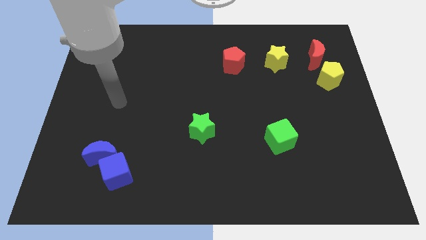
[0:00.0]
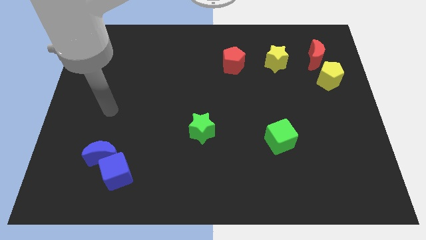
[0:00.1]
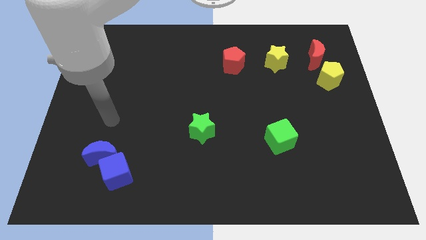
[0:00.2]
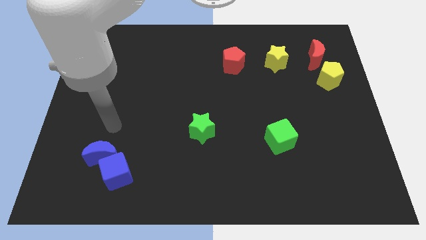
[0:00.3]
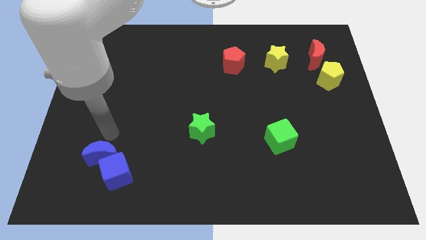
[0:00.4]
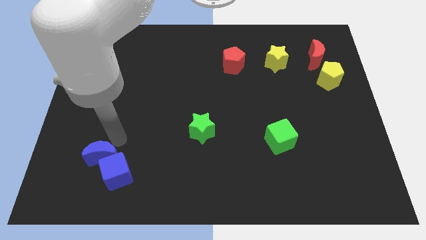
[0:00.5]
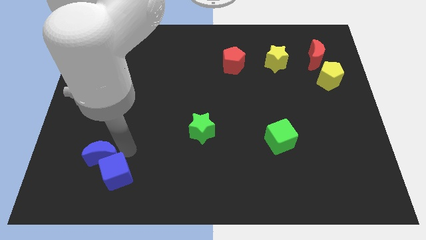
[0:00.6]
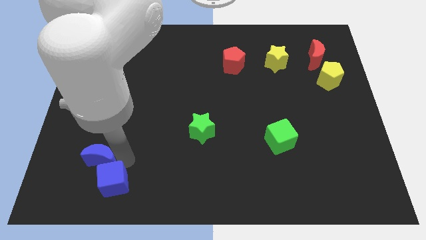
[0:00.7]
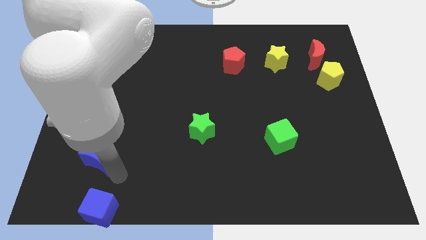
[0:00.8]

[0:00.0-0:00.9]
separate the blue moon from the blue cube

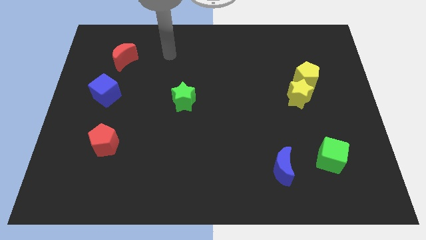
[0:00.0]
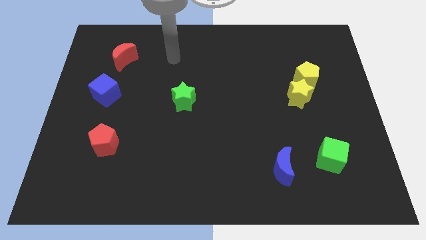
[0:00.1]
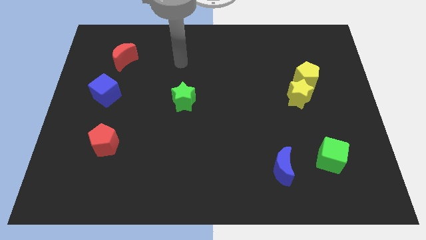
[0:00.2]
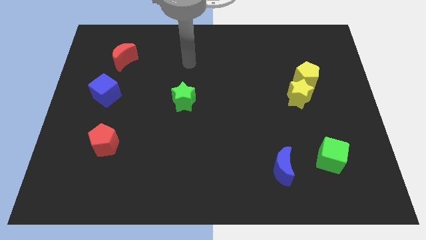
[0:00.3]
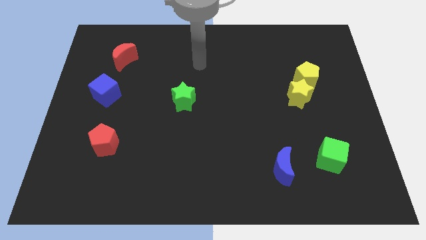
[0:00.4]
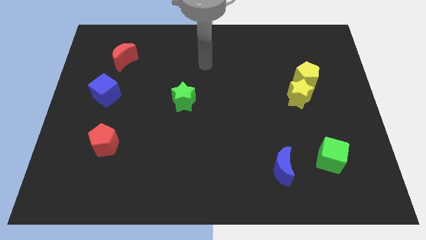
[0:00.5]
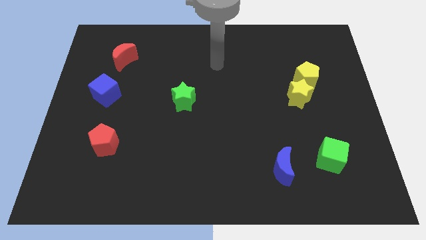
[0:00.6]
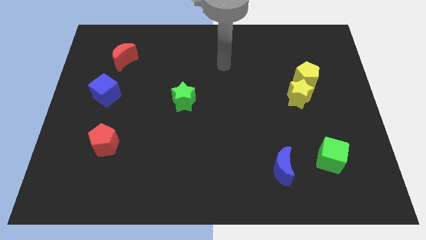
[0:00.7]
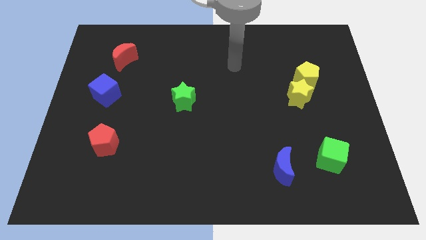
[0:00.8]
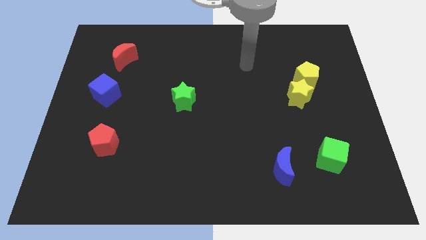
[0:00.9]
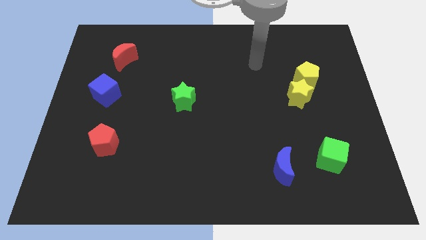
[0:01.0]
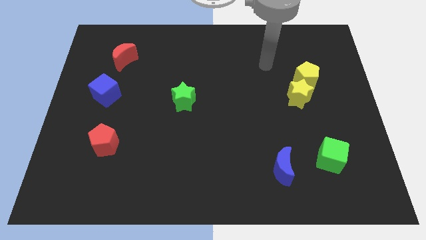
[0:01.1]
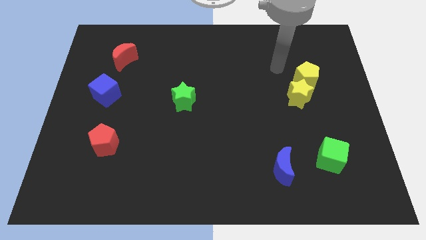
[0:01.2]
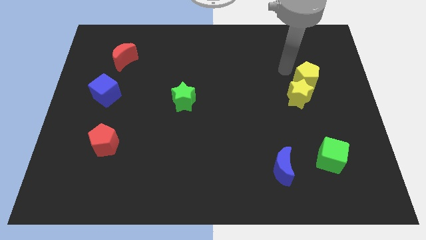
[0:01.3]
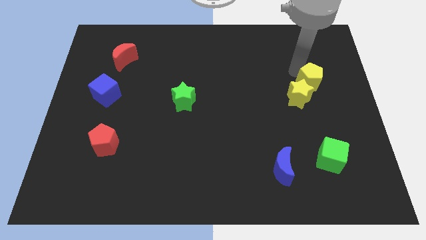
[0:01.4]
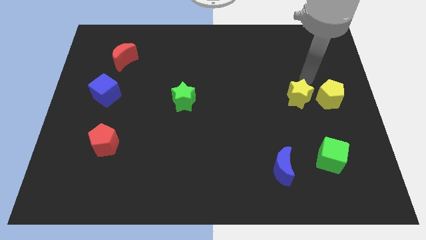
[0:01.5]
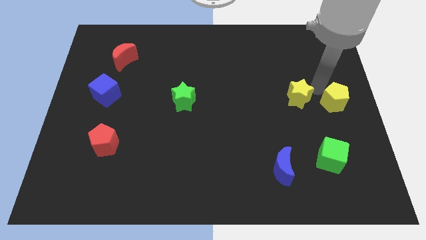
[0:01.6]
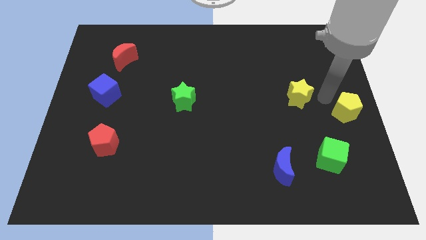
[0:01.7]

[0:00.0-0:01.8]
move the yellow star away from the yellow pentagon

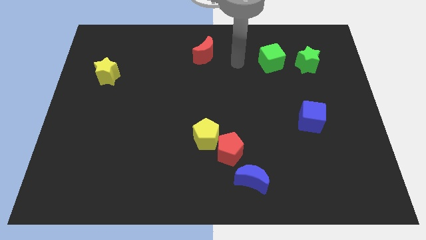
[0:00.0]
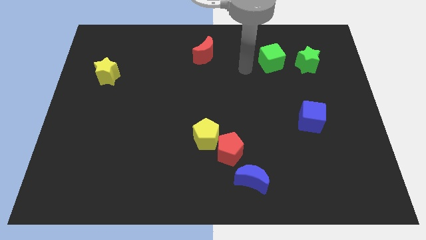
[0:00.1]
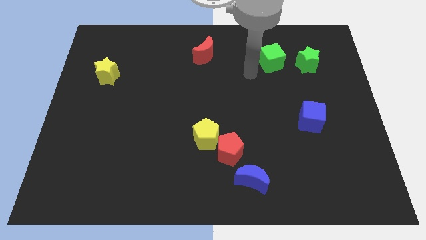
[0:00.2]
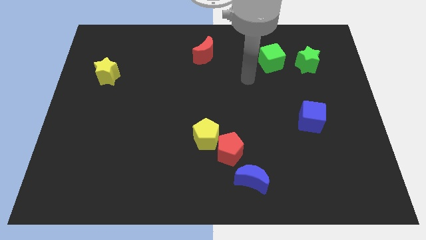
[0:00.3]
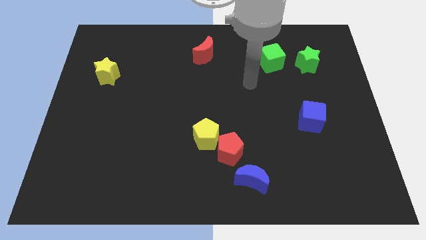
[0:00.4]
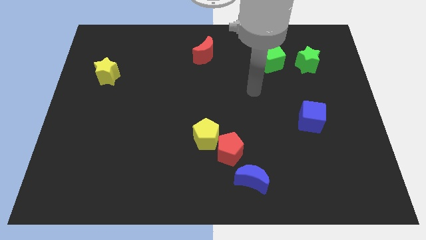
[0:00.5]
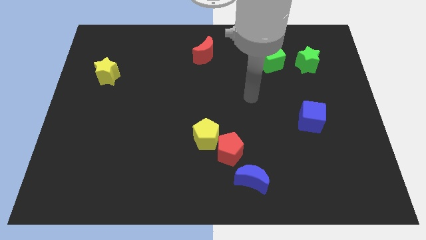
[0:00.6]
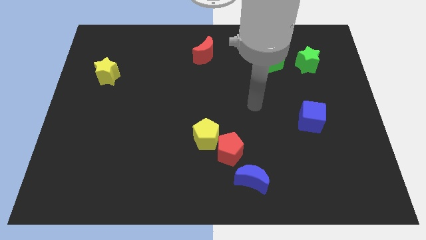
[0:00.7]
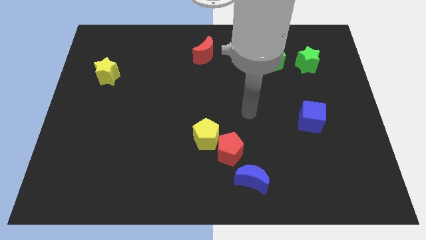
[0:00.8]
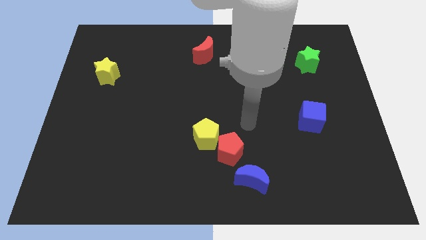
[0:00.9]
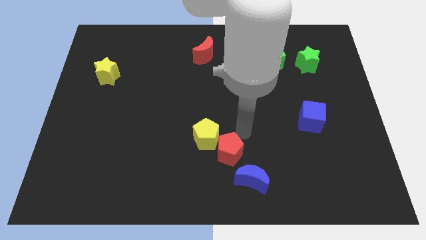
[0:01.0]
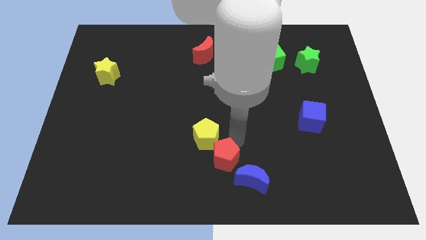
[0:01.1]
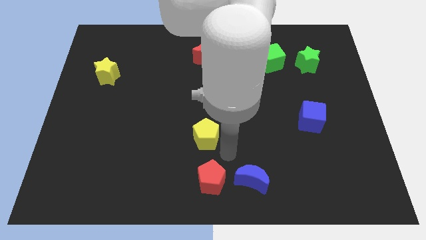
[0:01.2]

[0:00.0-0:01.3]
separate the yellow pentagon from the red pentagon

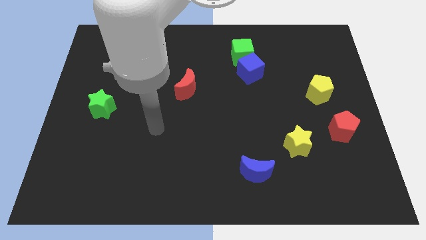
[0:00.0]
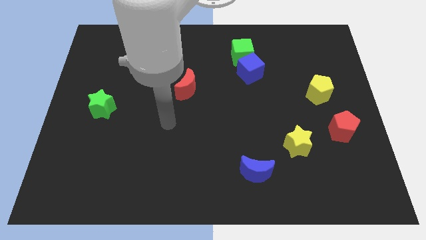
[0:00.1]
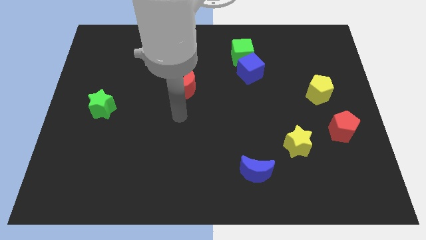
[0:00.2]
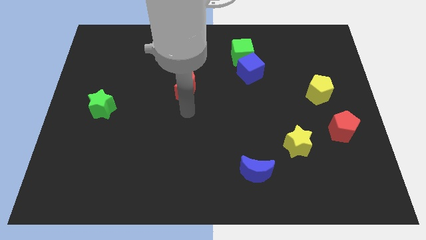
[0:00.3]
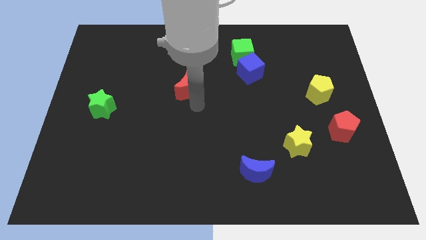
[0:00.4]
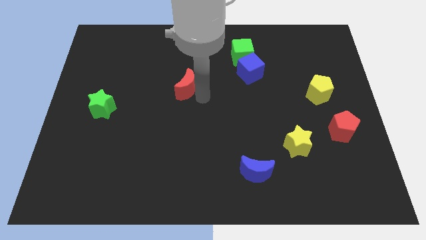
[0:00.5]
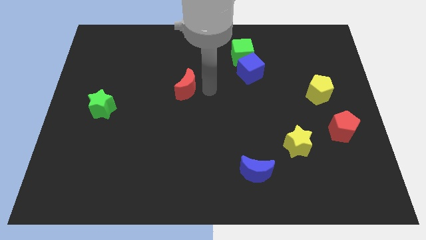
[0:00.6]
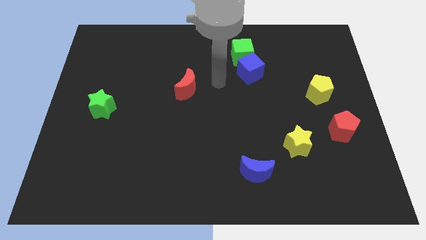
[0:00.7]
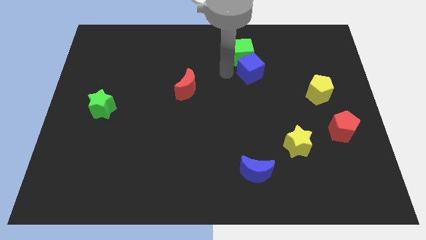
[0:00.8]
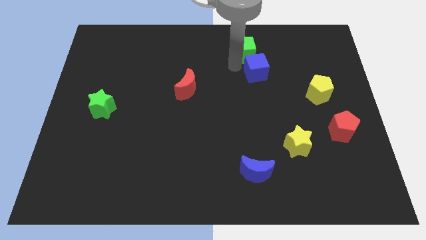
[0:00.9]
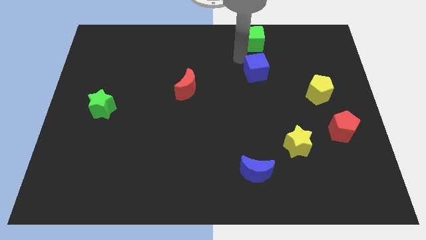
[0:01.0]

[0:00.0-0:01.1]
move the blue cube away from the green cube

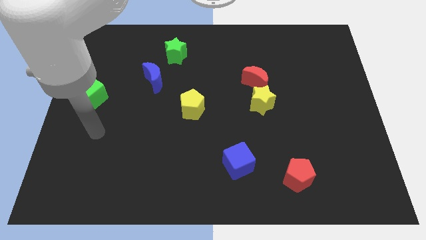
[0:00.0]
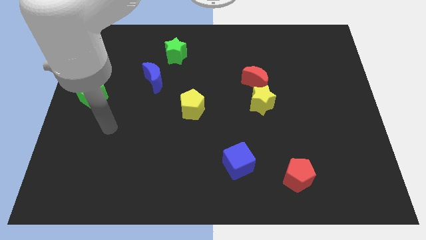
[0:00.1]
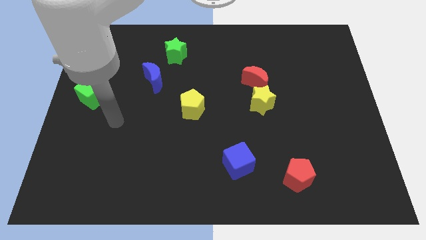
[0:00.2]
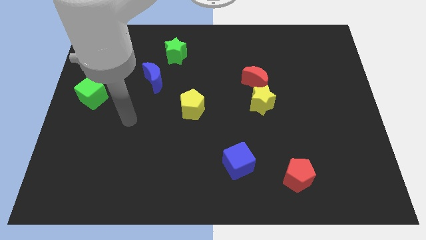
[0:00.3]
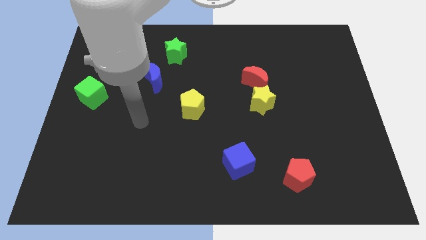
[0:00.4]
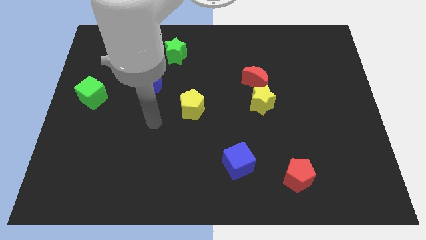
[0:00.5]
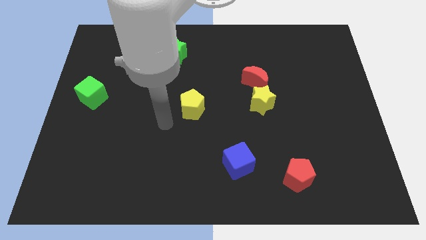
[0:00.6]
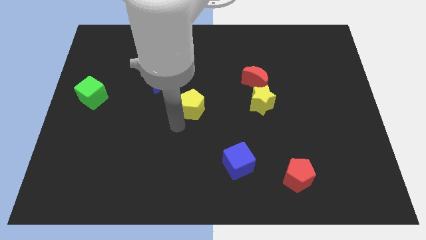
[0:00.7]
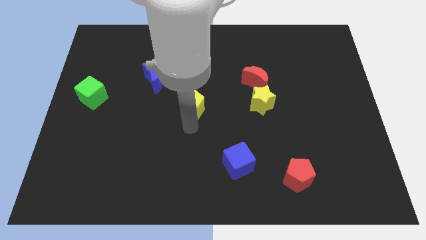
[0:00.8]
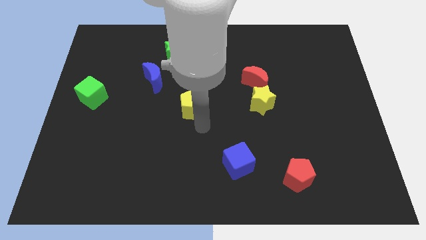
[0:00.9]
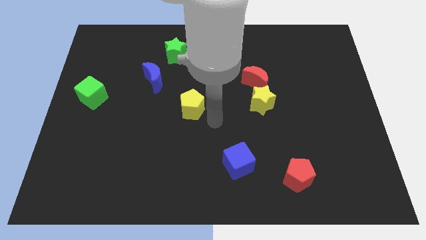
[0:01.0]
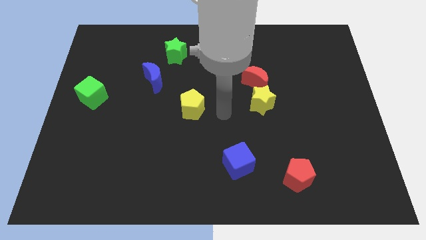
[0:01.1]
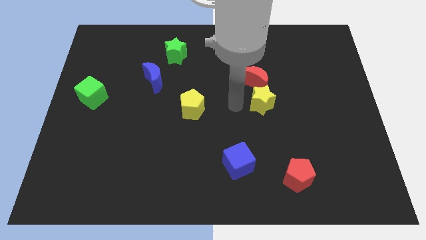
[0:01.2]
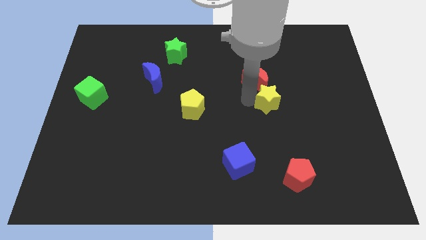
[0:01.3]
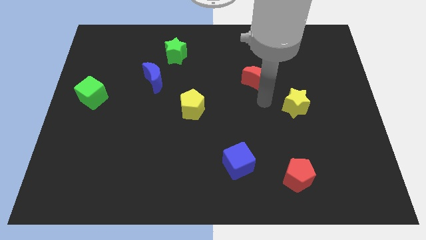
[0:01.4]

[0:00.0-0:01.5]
pull the red moon apart from the yellow star

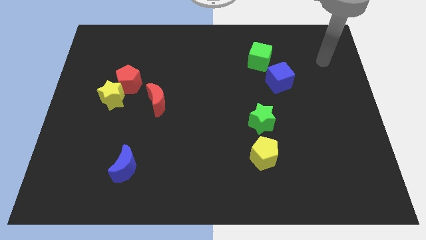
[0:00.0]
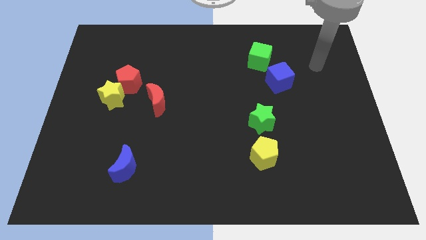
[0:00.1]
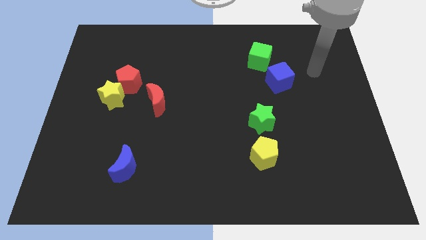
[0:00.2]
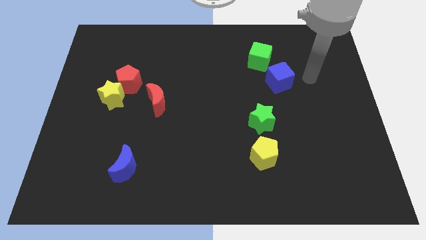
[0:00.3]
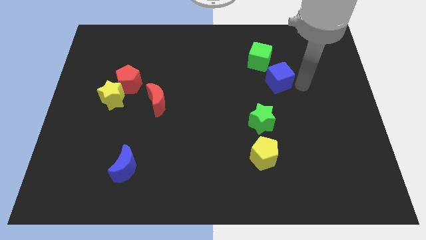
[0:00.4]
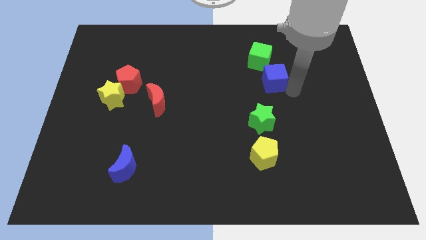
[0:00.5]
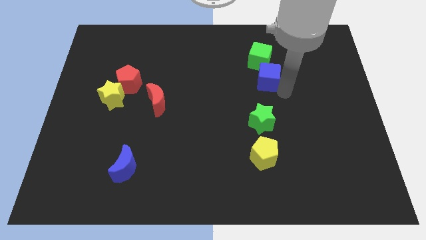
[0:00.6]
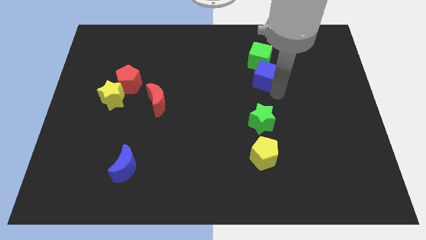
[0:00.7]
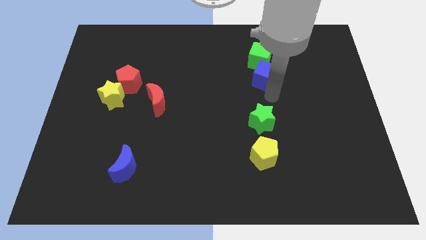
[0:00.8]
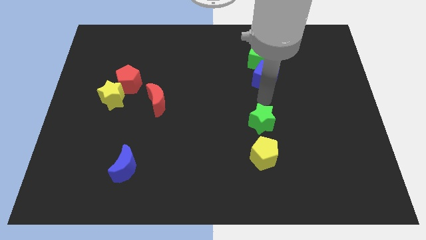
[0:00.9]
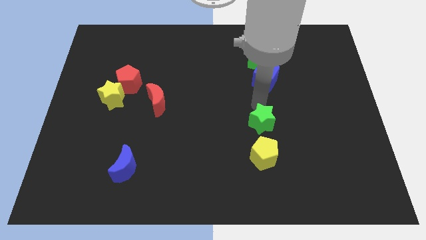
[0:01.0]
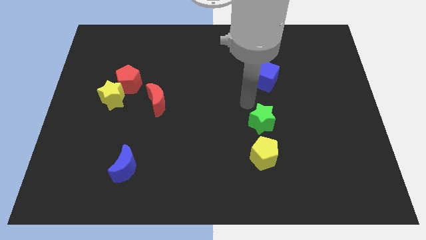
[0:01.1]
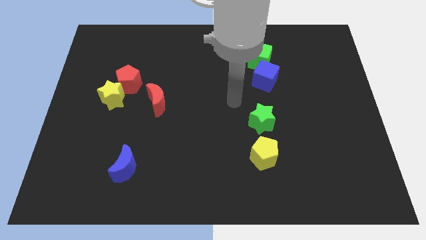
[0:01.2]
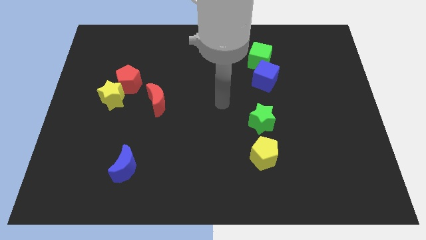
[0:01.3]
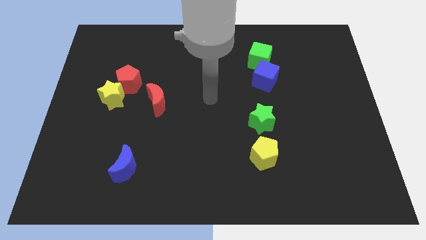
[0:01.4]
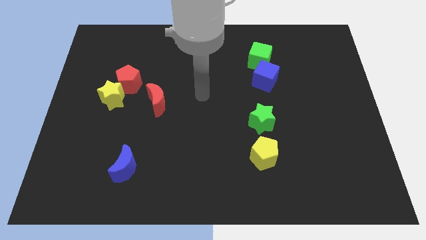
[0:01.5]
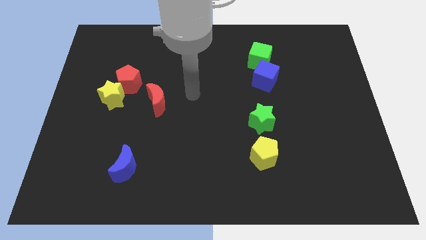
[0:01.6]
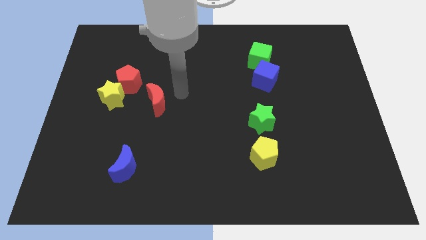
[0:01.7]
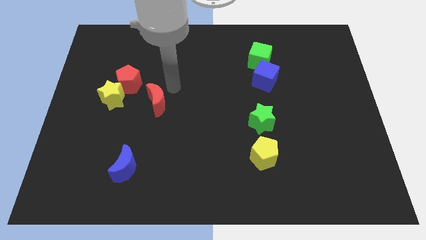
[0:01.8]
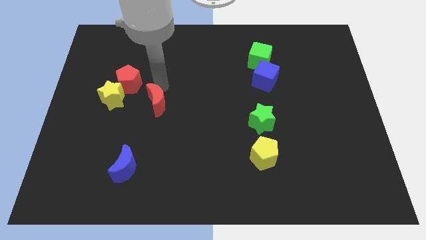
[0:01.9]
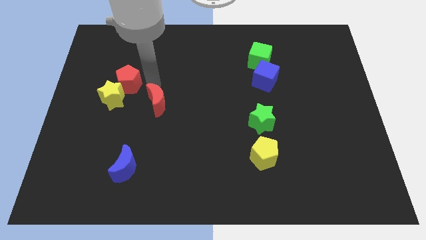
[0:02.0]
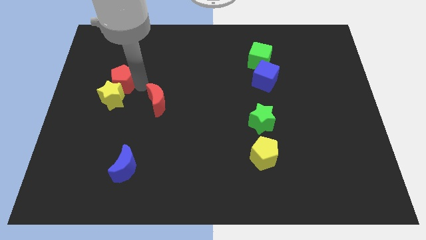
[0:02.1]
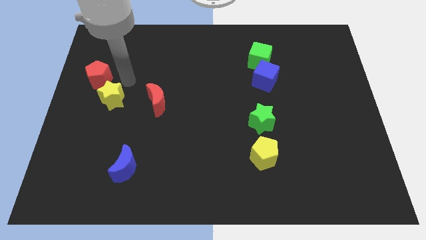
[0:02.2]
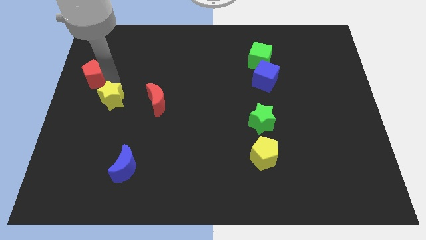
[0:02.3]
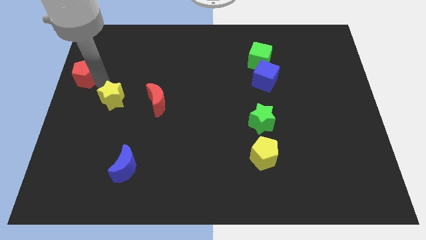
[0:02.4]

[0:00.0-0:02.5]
separate the yellow star from the red pentagon

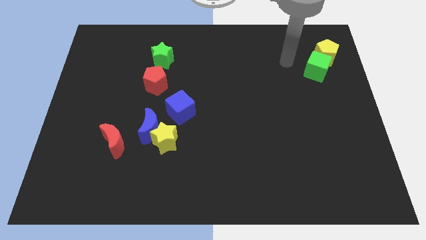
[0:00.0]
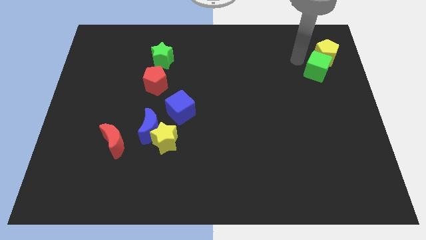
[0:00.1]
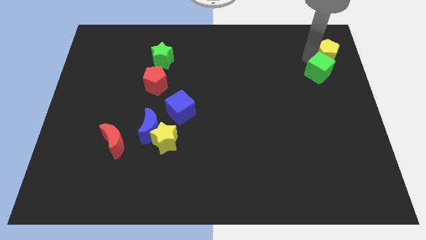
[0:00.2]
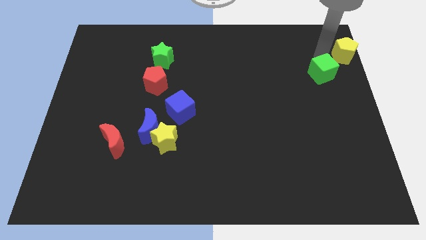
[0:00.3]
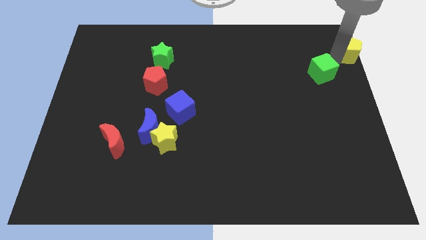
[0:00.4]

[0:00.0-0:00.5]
pull the green cube apart from the yellow pentagon
